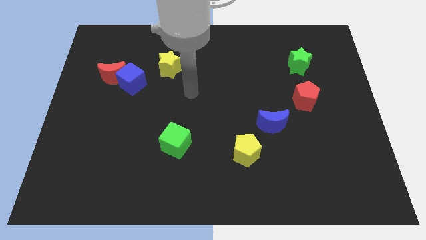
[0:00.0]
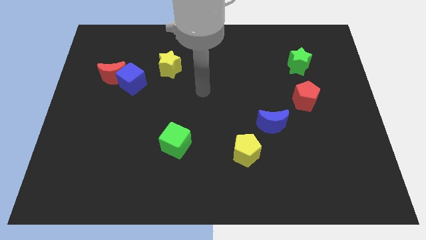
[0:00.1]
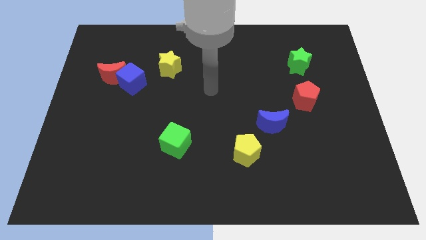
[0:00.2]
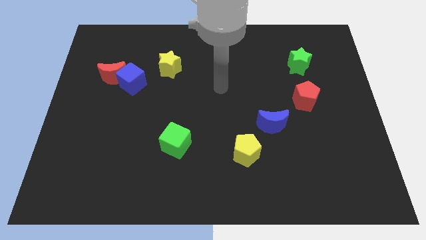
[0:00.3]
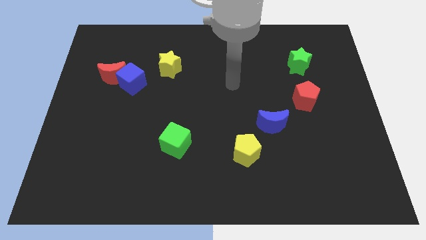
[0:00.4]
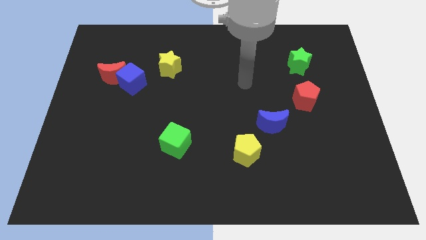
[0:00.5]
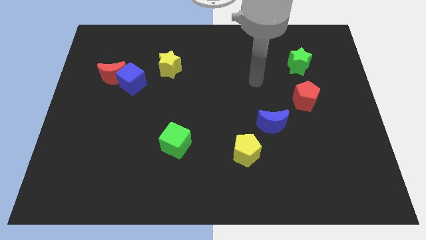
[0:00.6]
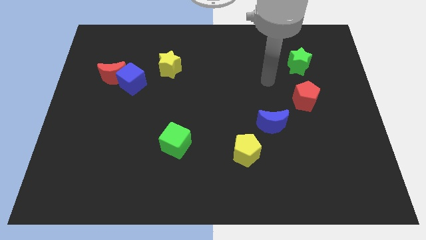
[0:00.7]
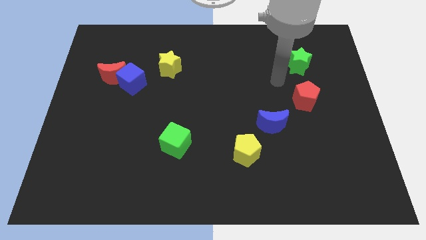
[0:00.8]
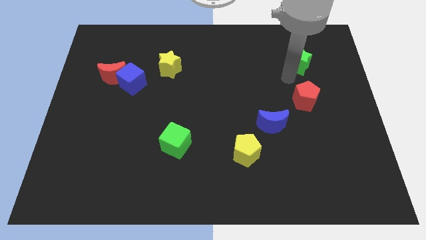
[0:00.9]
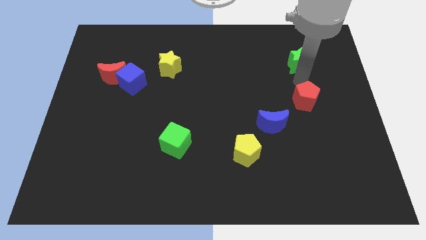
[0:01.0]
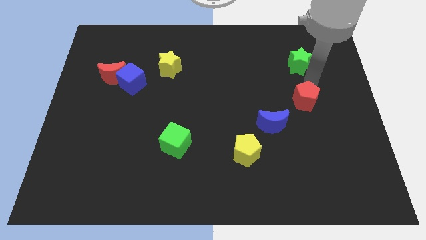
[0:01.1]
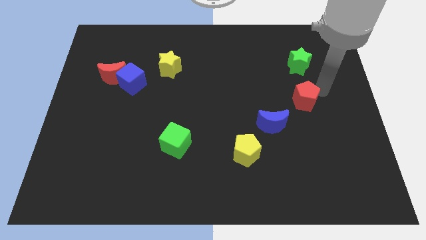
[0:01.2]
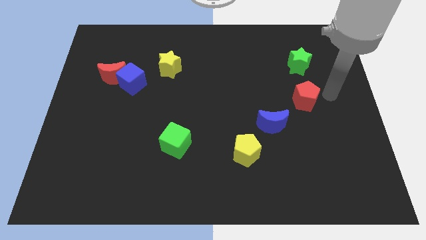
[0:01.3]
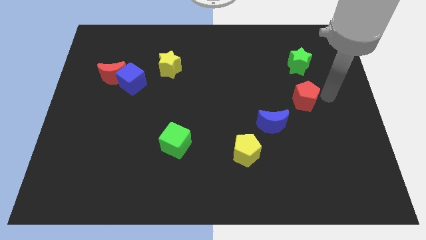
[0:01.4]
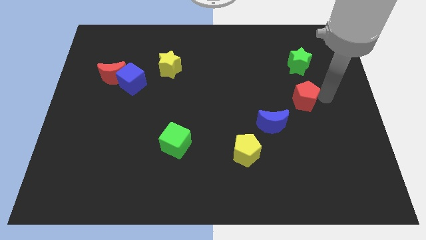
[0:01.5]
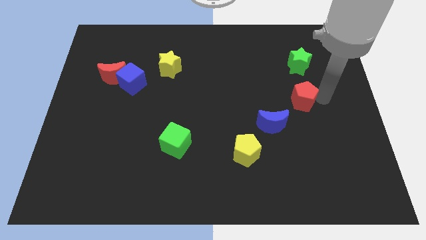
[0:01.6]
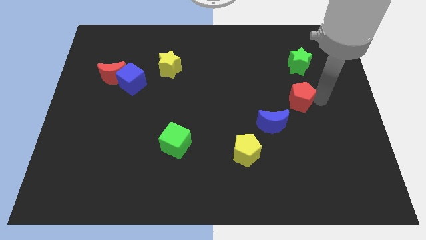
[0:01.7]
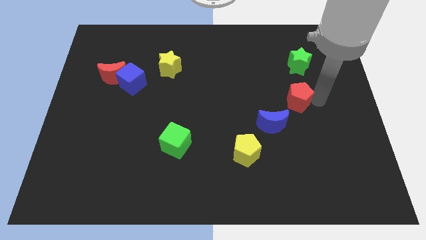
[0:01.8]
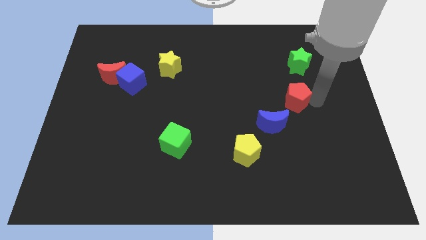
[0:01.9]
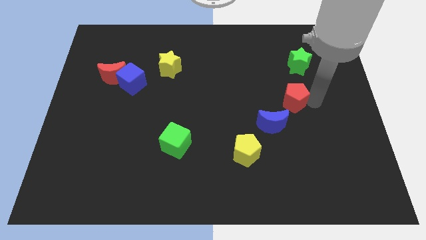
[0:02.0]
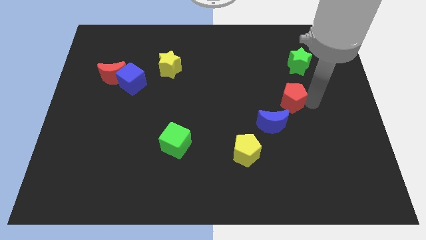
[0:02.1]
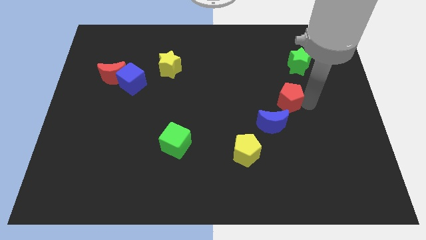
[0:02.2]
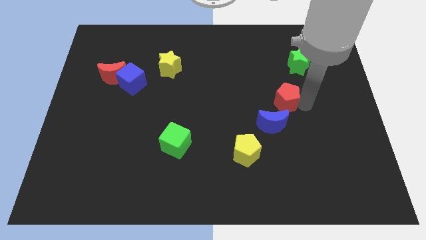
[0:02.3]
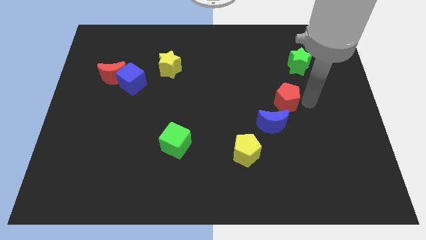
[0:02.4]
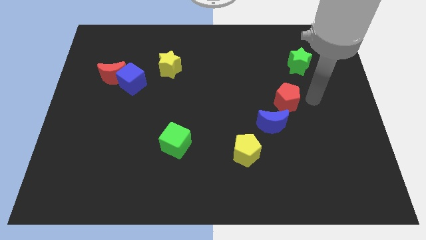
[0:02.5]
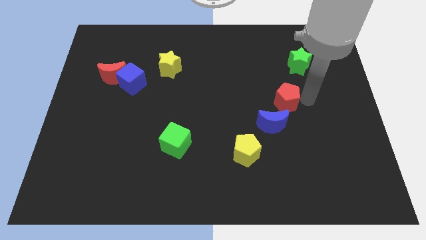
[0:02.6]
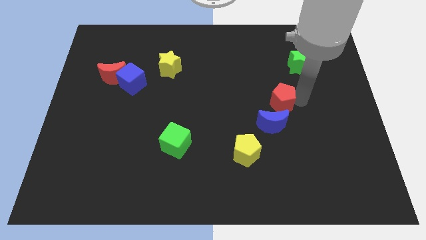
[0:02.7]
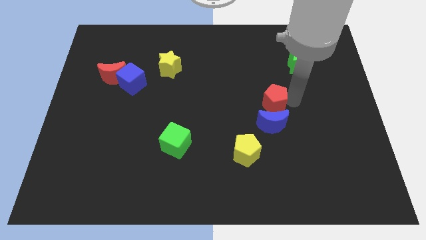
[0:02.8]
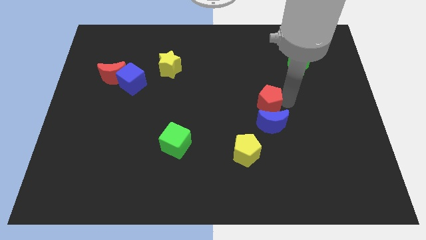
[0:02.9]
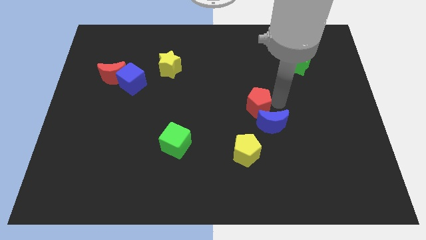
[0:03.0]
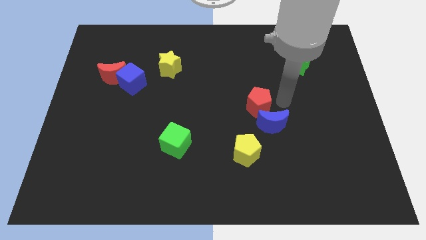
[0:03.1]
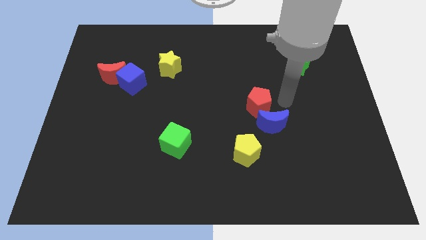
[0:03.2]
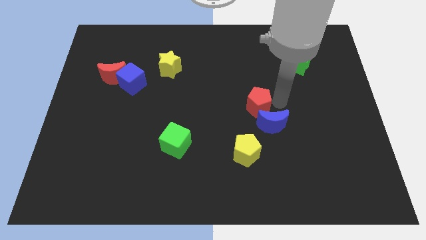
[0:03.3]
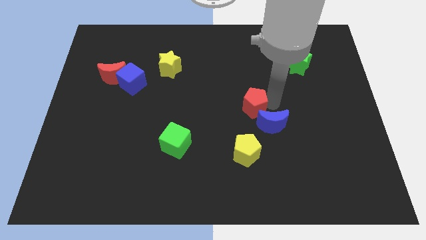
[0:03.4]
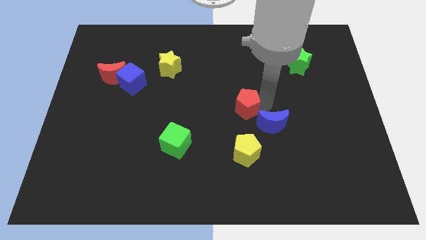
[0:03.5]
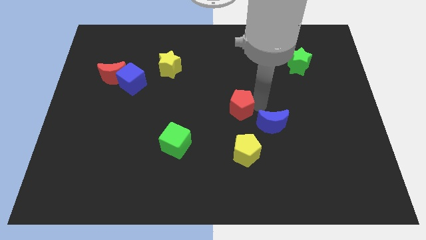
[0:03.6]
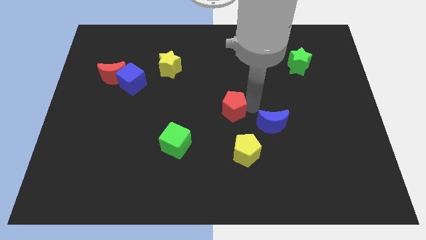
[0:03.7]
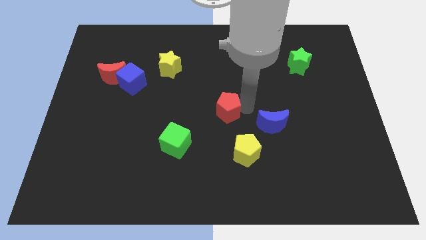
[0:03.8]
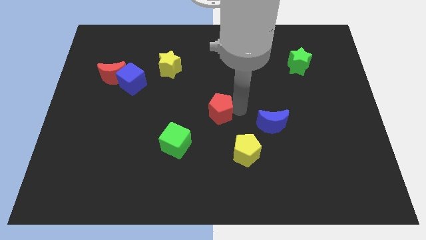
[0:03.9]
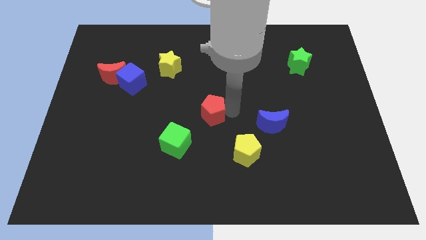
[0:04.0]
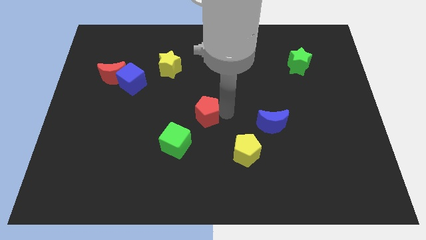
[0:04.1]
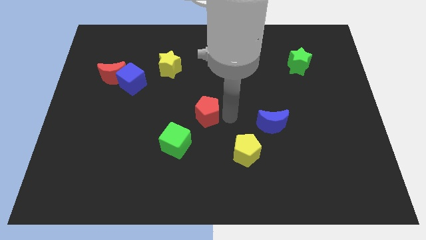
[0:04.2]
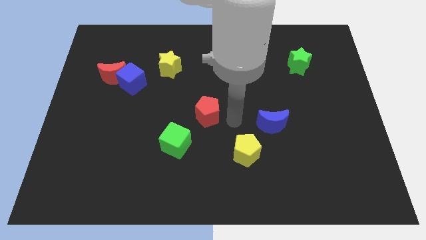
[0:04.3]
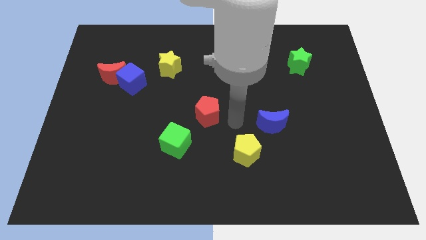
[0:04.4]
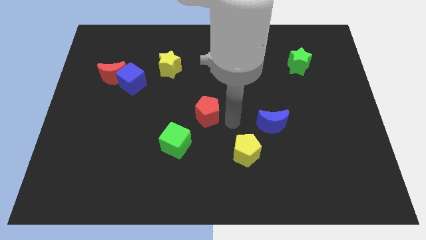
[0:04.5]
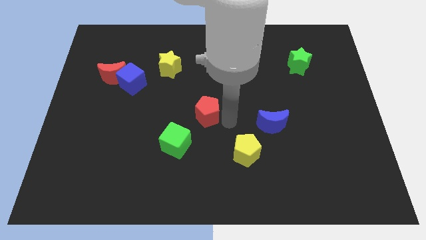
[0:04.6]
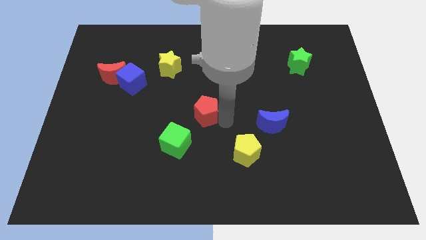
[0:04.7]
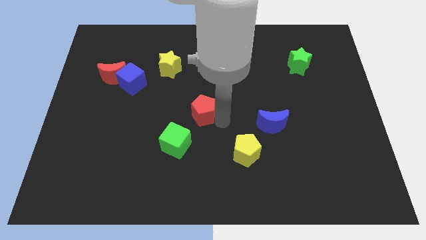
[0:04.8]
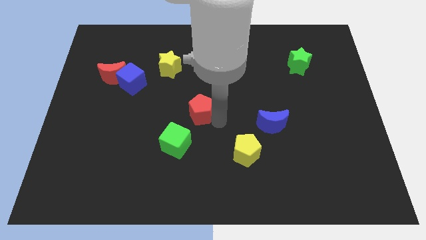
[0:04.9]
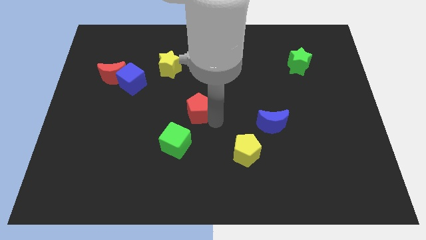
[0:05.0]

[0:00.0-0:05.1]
move the red pentagon above the green cube

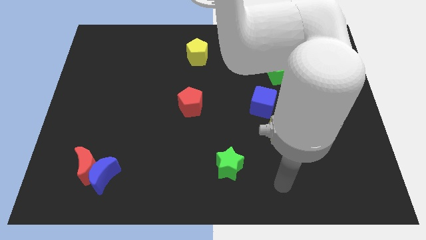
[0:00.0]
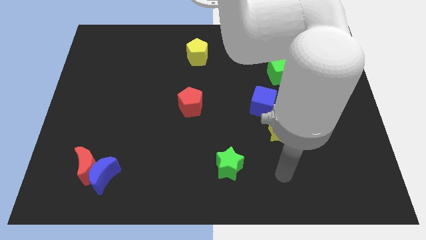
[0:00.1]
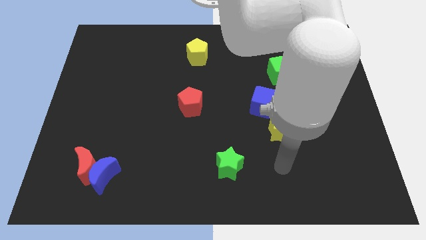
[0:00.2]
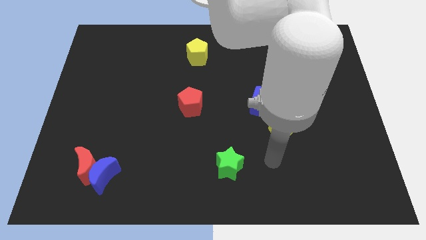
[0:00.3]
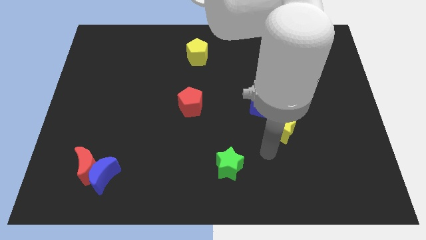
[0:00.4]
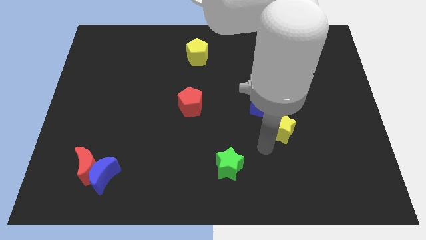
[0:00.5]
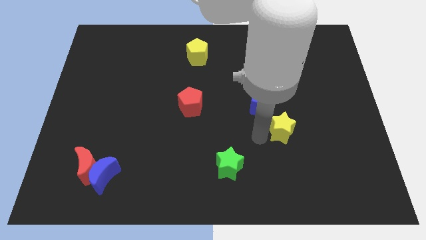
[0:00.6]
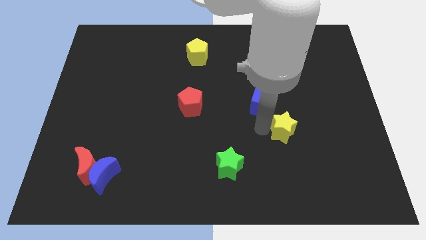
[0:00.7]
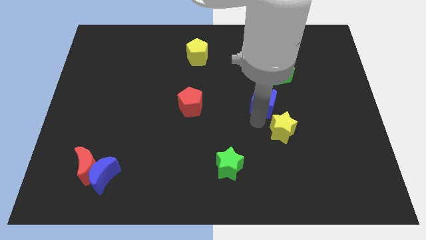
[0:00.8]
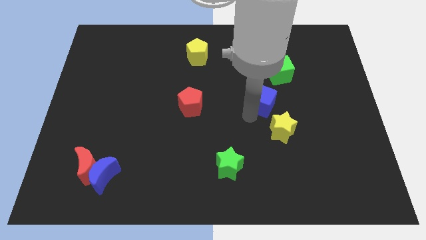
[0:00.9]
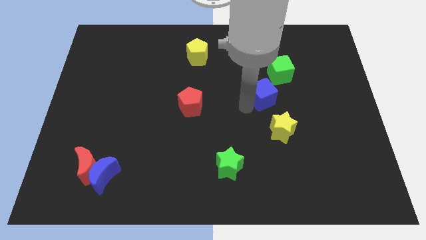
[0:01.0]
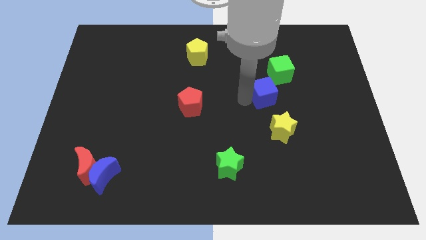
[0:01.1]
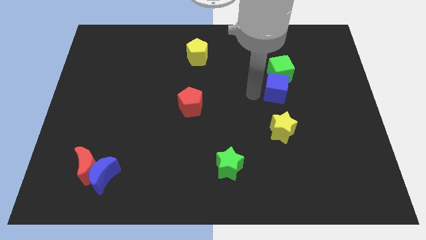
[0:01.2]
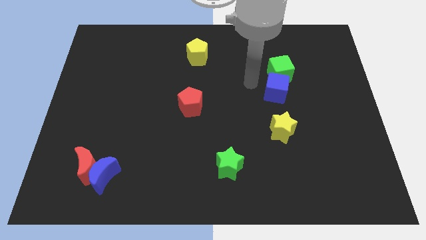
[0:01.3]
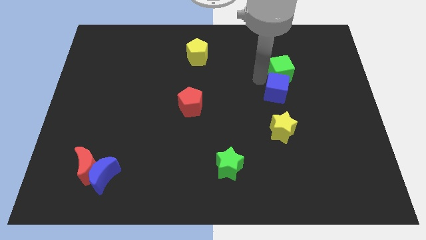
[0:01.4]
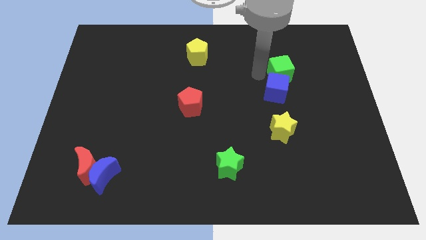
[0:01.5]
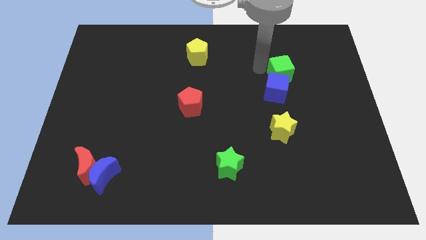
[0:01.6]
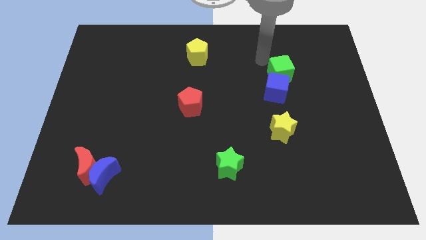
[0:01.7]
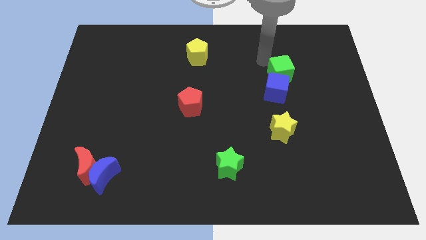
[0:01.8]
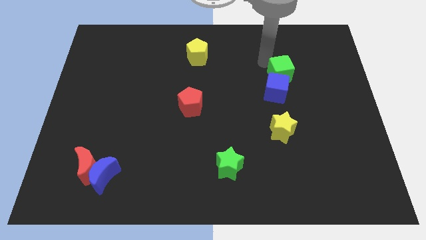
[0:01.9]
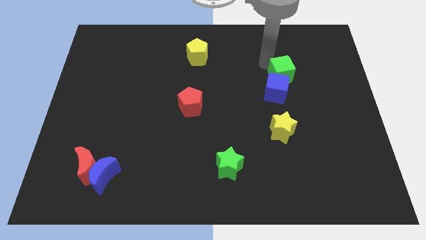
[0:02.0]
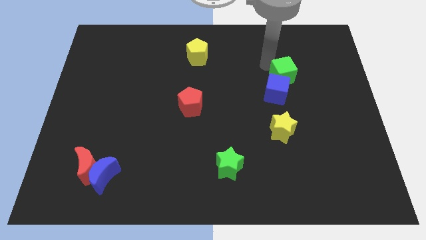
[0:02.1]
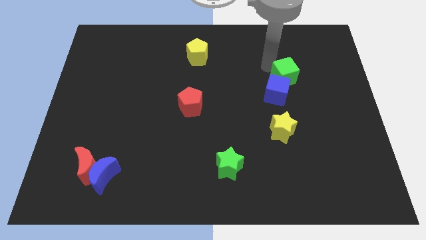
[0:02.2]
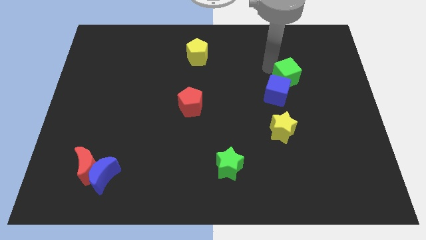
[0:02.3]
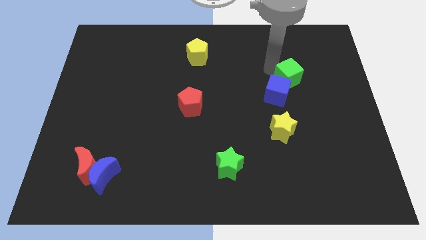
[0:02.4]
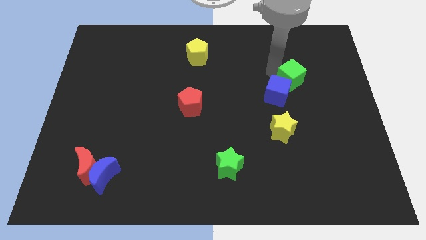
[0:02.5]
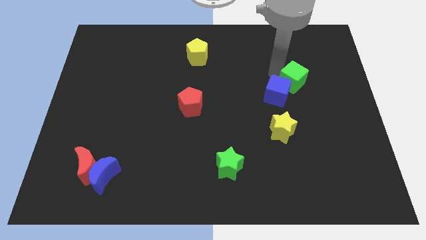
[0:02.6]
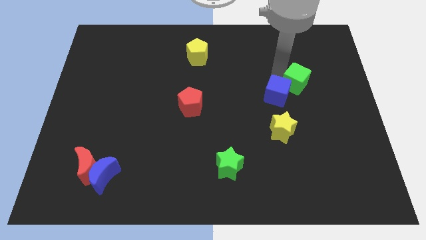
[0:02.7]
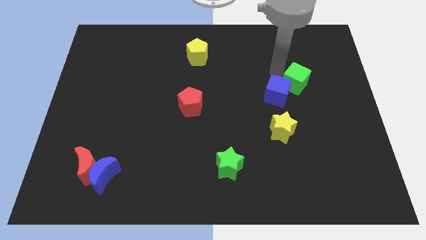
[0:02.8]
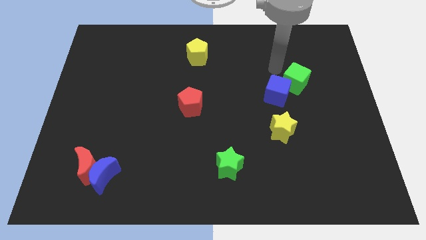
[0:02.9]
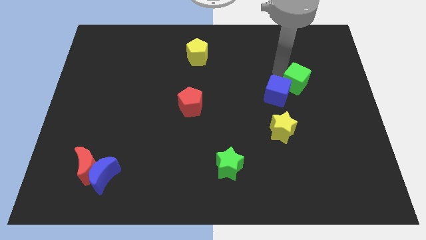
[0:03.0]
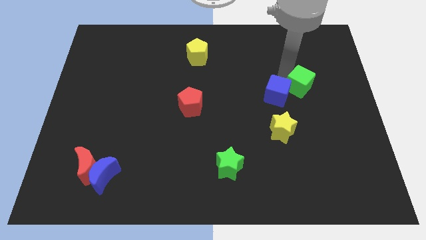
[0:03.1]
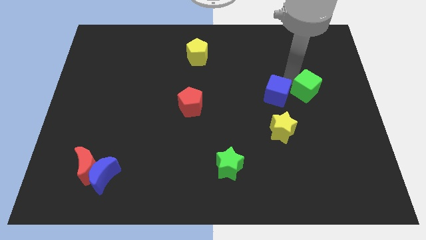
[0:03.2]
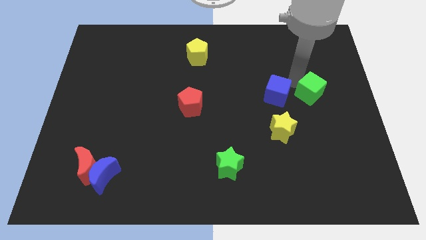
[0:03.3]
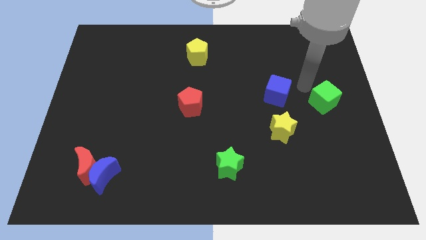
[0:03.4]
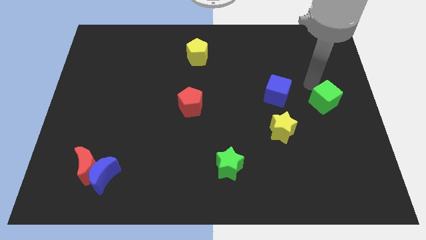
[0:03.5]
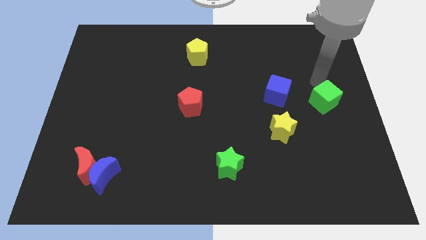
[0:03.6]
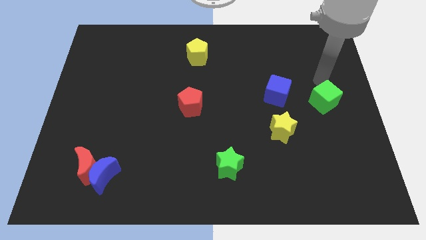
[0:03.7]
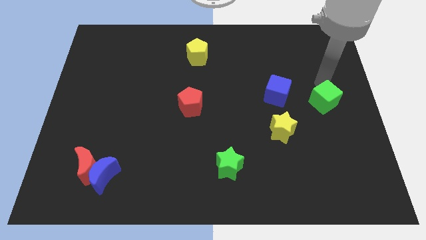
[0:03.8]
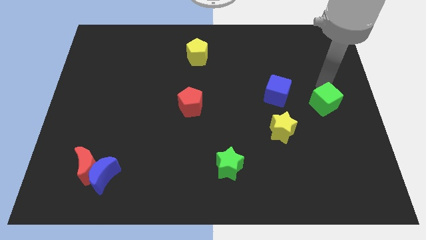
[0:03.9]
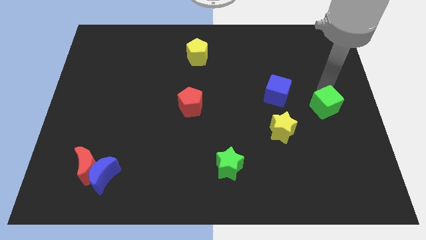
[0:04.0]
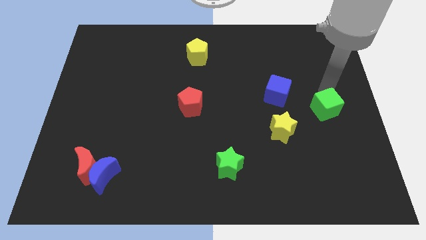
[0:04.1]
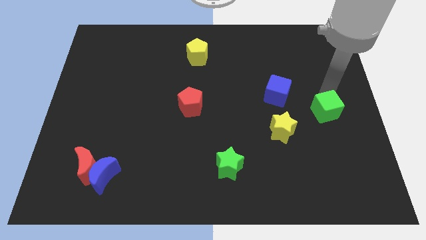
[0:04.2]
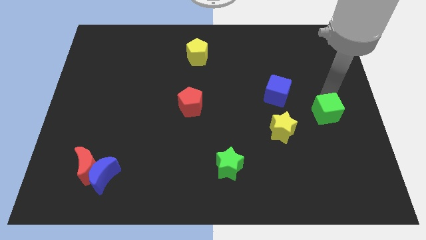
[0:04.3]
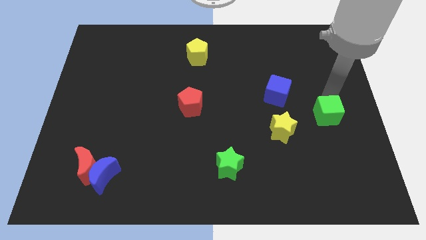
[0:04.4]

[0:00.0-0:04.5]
push the green cube to the right of the yellow star
